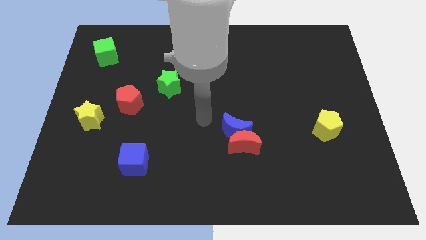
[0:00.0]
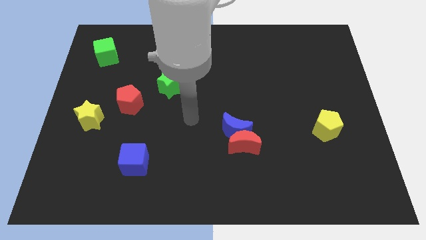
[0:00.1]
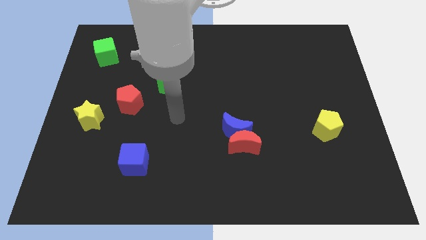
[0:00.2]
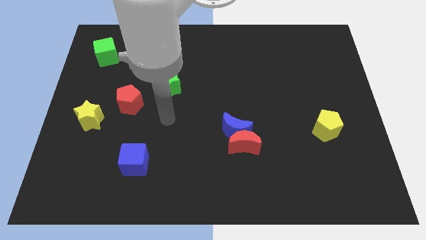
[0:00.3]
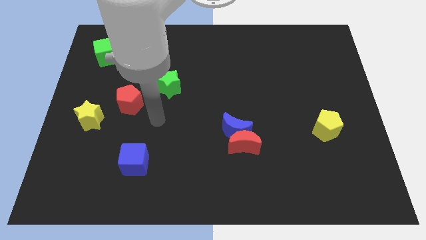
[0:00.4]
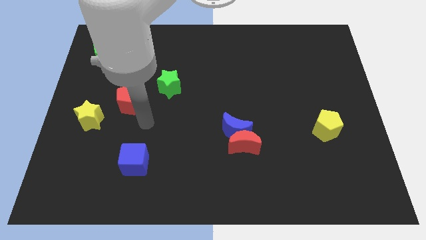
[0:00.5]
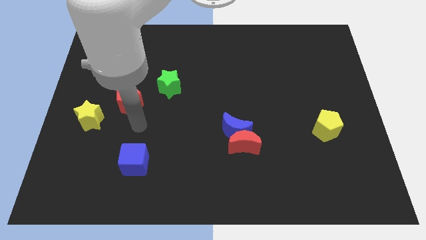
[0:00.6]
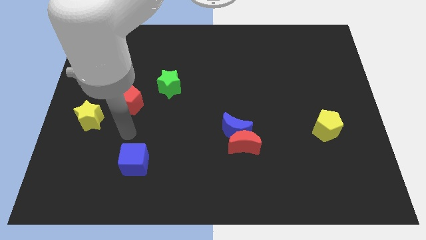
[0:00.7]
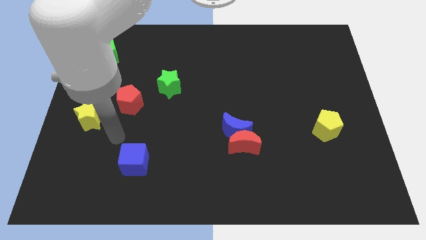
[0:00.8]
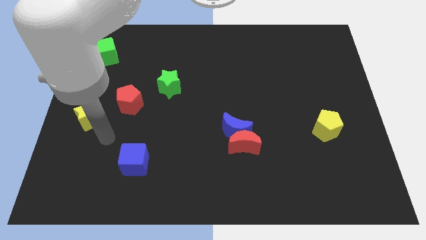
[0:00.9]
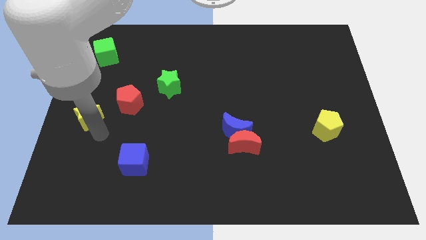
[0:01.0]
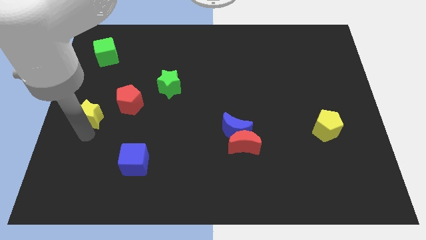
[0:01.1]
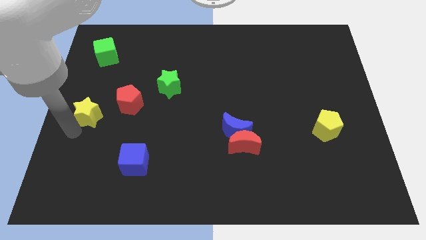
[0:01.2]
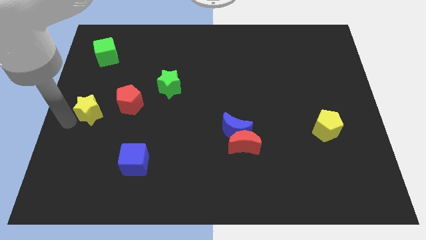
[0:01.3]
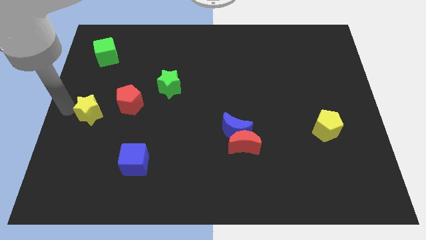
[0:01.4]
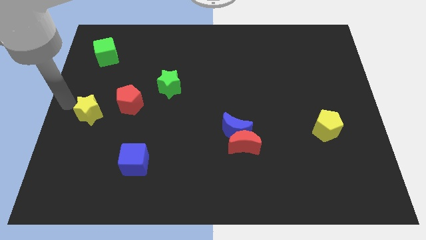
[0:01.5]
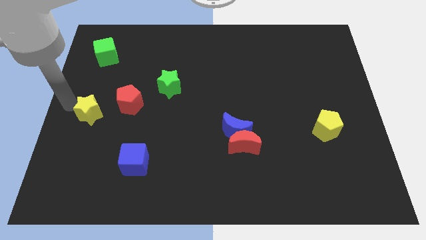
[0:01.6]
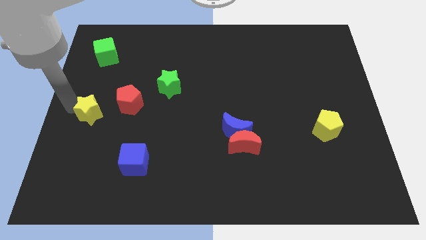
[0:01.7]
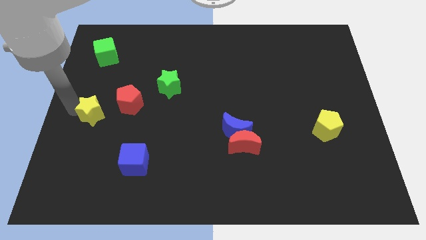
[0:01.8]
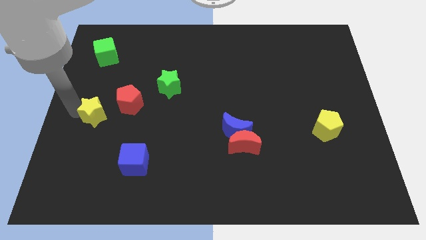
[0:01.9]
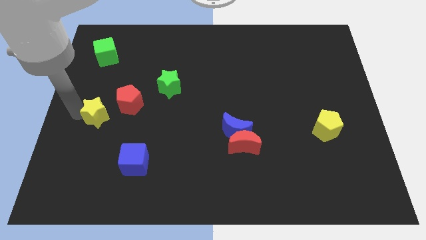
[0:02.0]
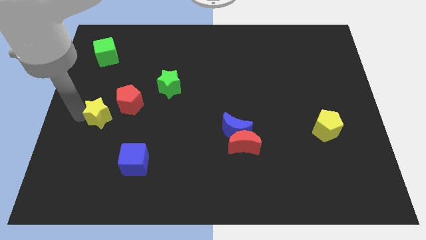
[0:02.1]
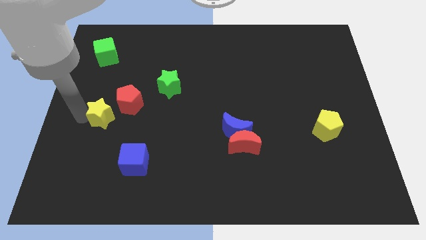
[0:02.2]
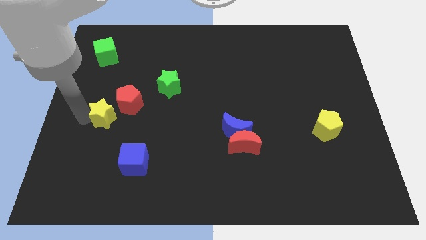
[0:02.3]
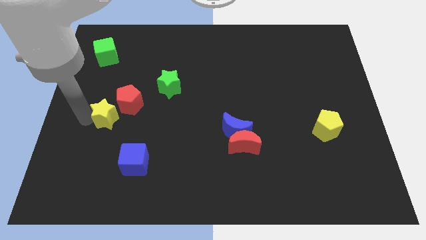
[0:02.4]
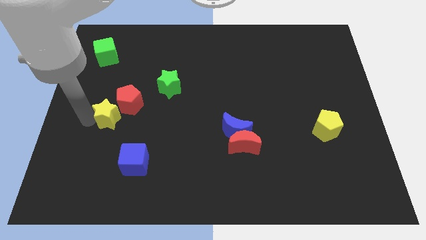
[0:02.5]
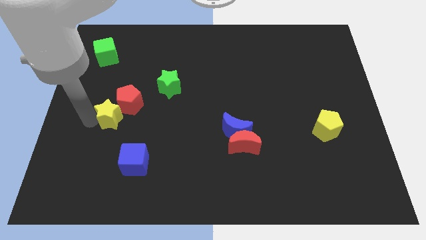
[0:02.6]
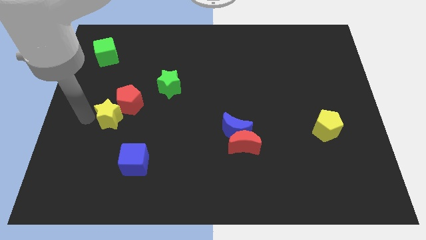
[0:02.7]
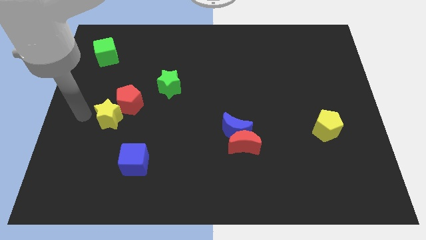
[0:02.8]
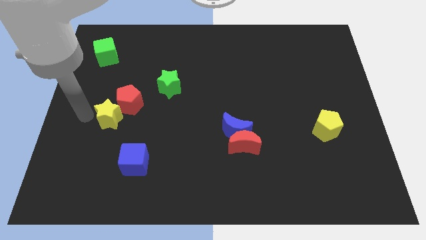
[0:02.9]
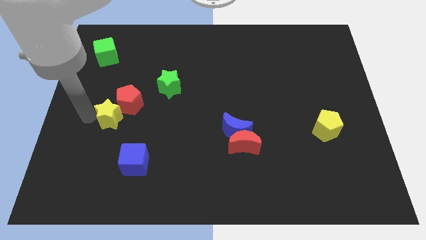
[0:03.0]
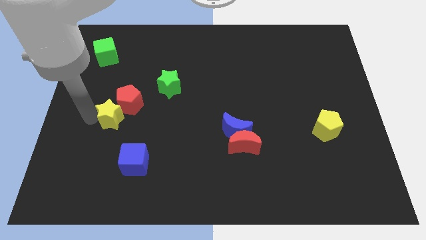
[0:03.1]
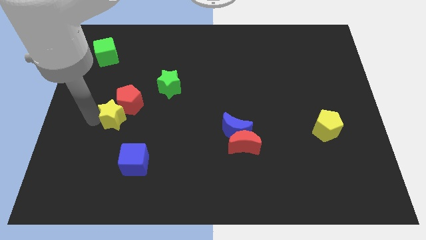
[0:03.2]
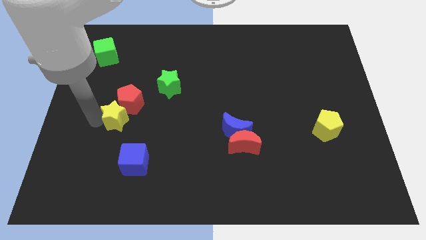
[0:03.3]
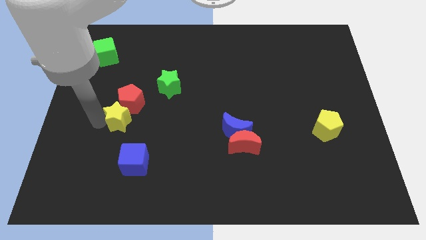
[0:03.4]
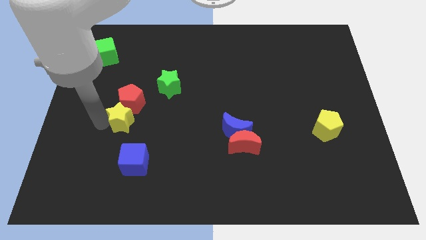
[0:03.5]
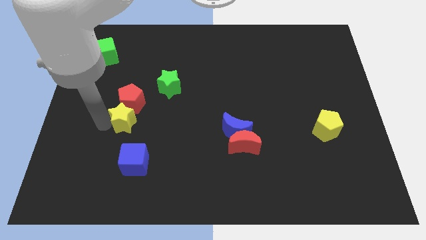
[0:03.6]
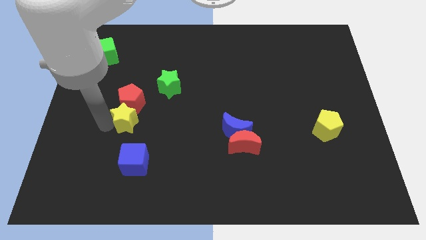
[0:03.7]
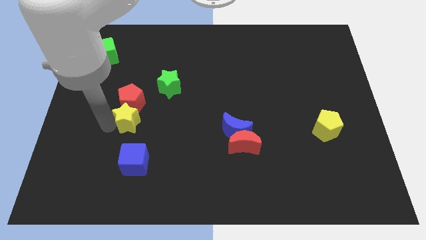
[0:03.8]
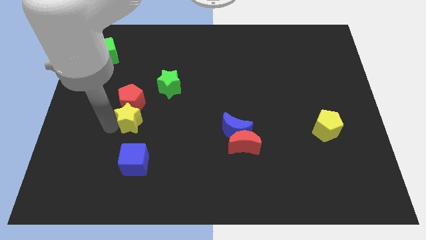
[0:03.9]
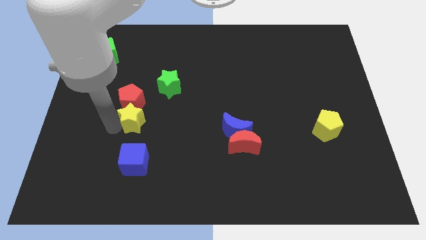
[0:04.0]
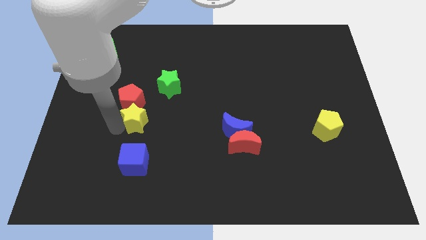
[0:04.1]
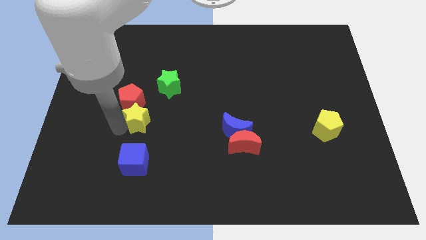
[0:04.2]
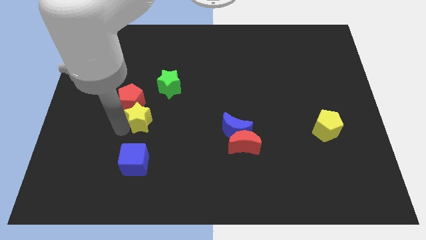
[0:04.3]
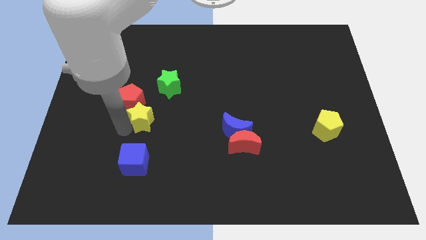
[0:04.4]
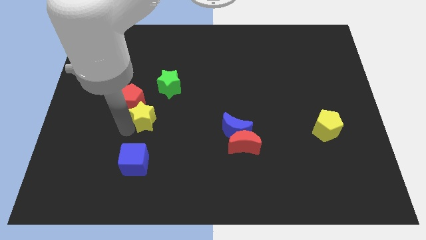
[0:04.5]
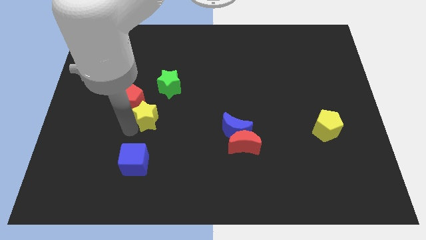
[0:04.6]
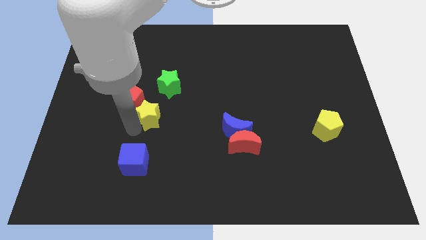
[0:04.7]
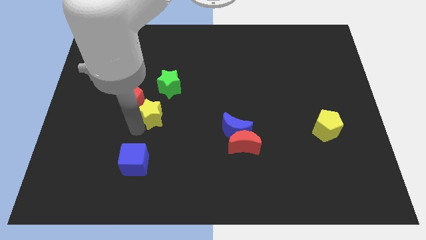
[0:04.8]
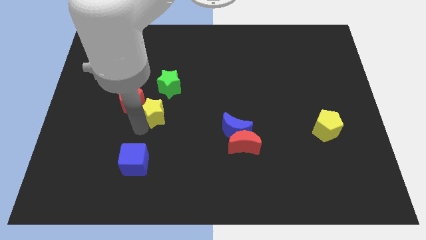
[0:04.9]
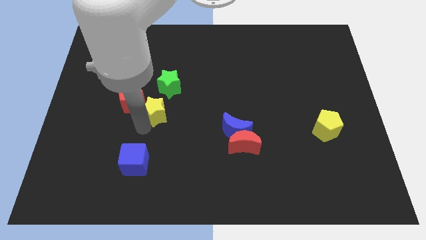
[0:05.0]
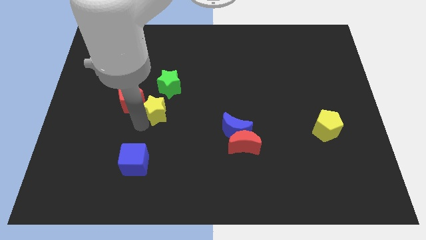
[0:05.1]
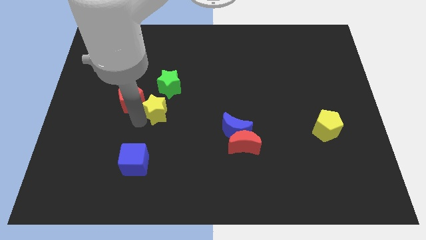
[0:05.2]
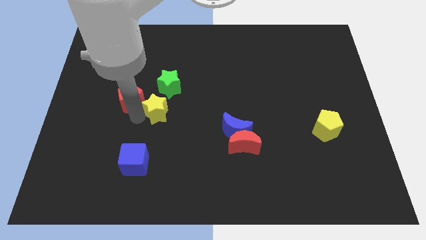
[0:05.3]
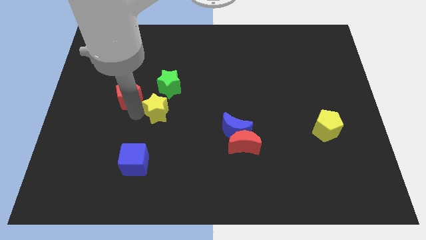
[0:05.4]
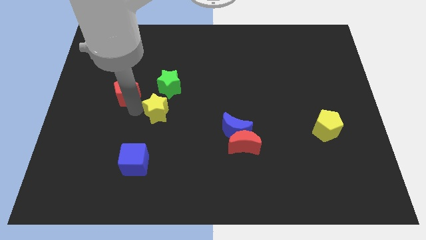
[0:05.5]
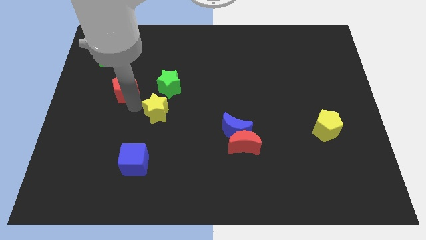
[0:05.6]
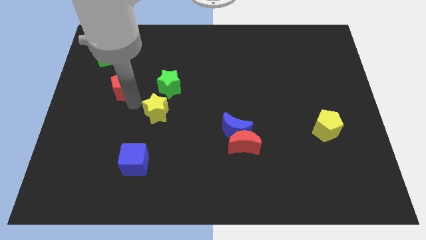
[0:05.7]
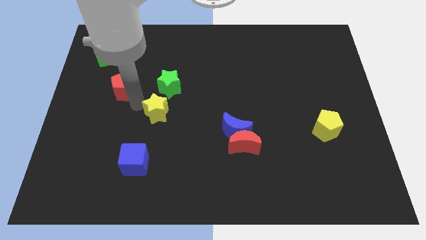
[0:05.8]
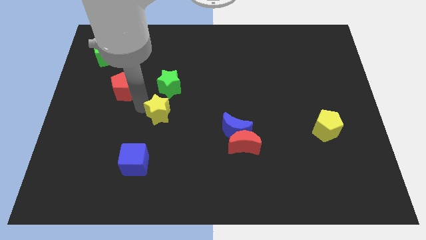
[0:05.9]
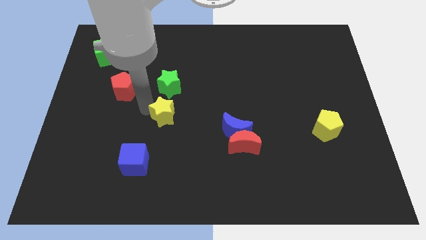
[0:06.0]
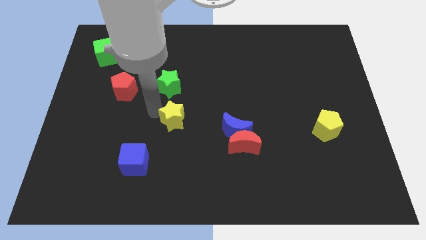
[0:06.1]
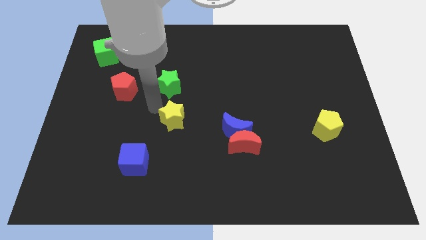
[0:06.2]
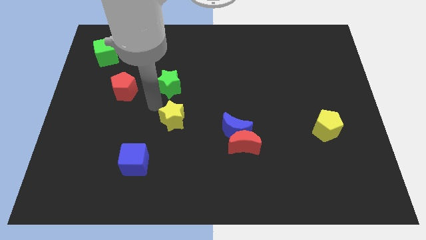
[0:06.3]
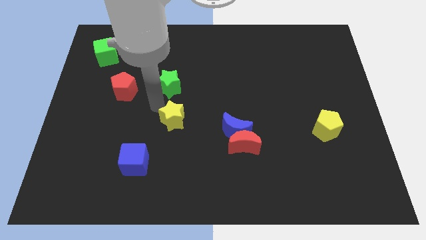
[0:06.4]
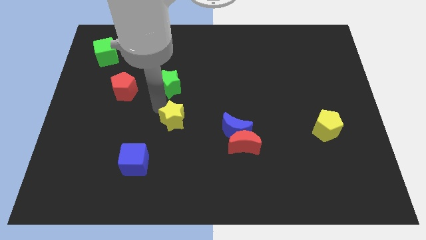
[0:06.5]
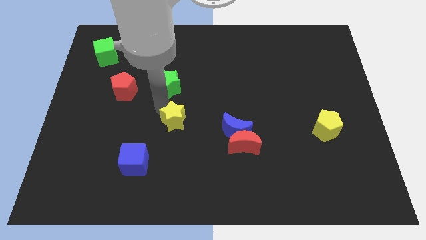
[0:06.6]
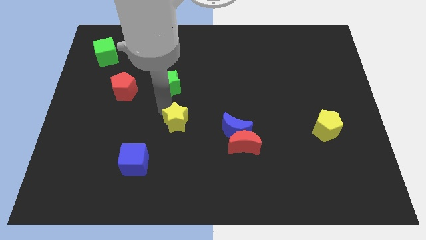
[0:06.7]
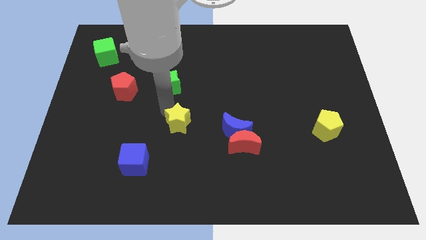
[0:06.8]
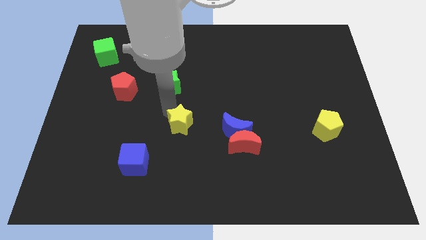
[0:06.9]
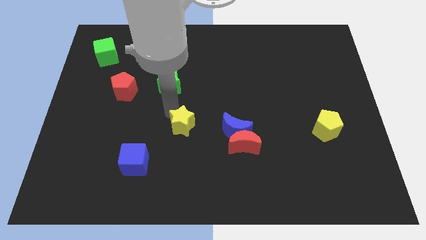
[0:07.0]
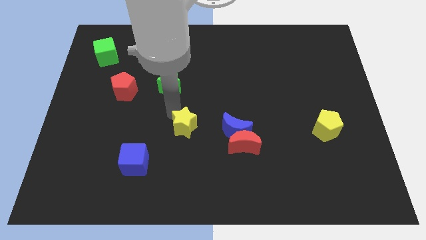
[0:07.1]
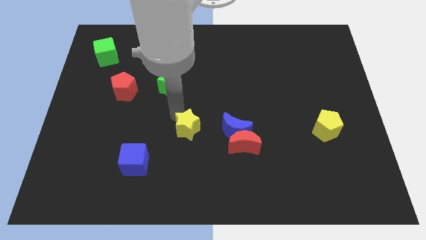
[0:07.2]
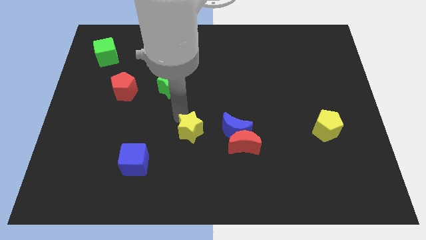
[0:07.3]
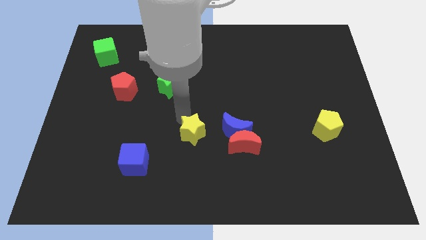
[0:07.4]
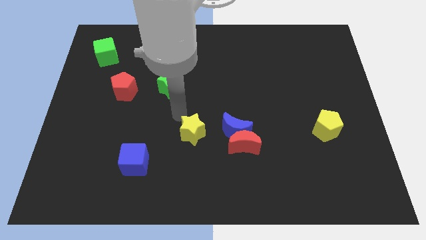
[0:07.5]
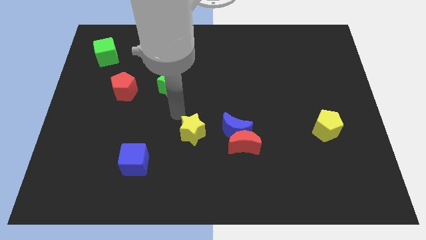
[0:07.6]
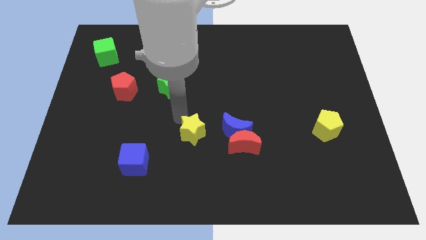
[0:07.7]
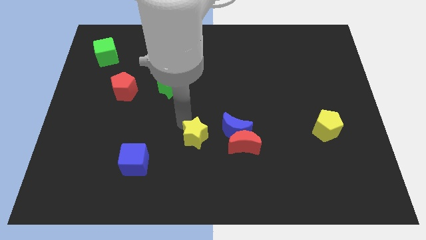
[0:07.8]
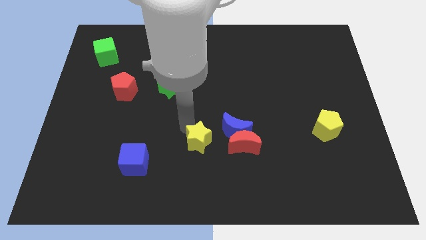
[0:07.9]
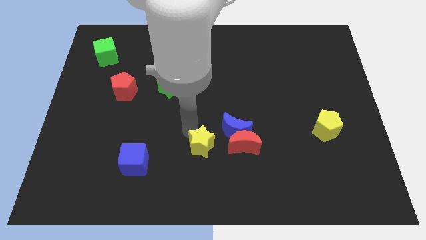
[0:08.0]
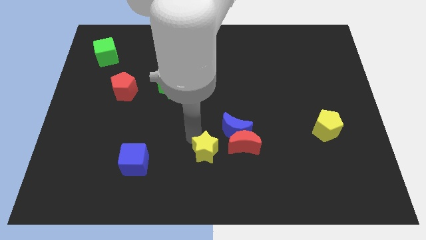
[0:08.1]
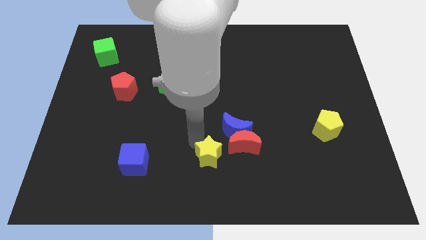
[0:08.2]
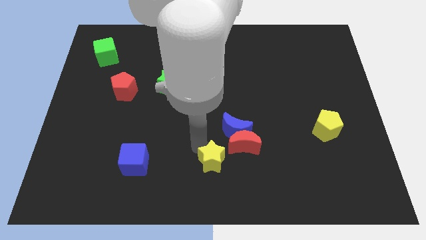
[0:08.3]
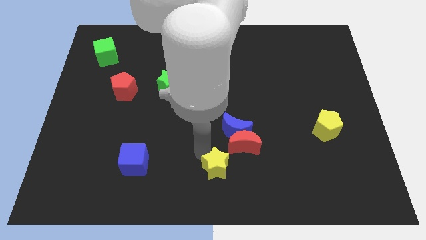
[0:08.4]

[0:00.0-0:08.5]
put the yellow star to the bottom side of the blue moon

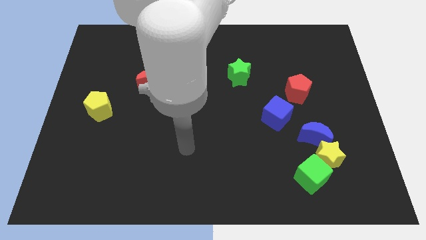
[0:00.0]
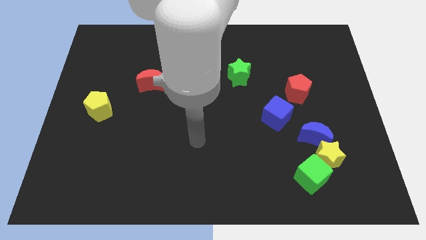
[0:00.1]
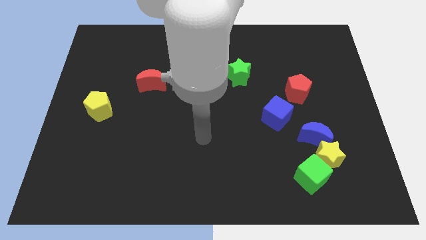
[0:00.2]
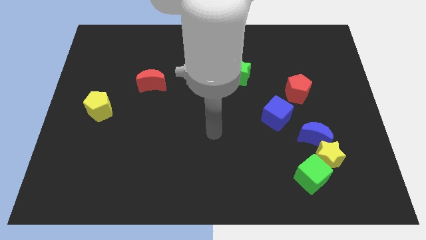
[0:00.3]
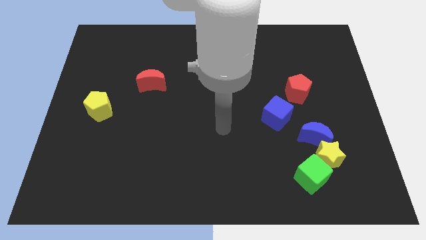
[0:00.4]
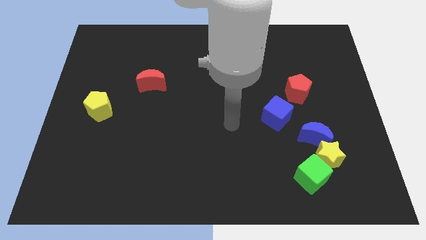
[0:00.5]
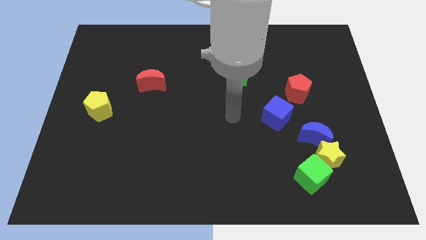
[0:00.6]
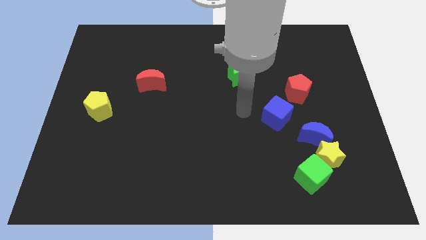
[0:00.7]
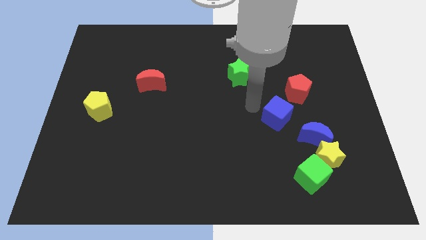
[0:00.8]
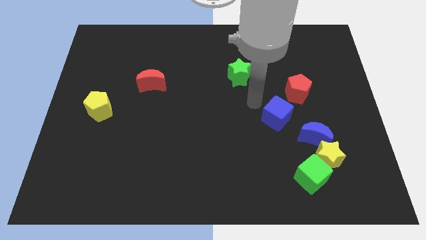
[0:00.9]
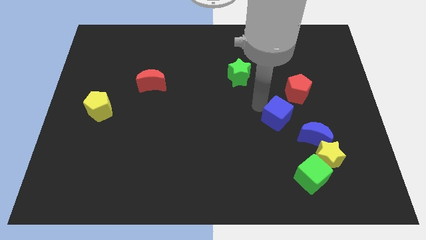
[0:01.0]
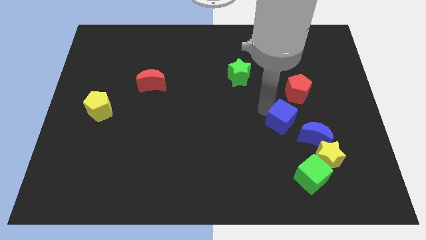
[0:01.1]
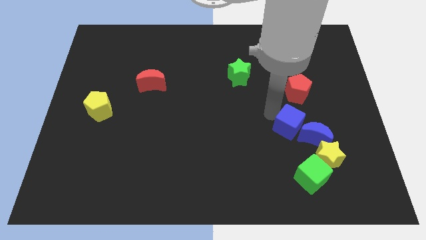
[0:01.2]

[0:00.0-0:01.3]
move the blue cube to the top side of the green cube
